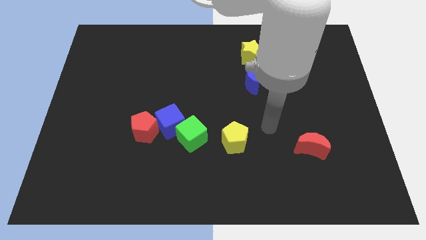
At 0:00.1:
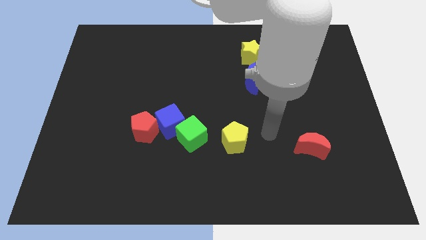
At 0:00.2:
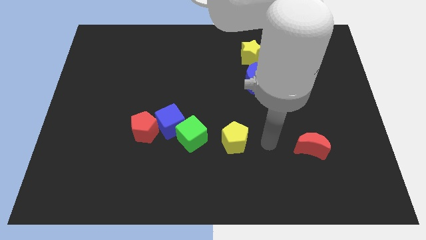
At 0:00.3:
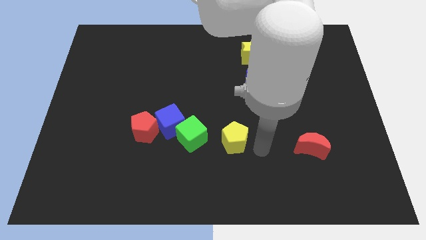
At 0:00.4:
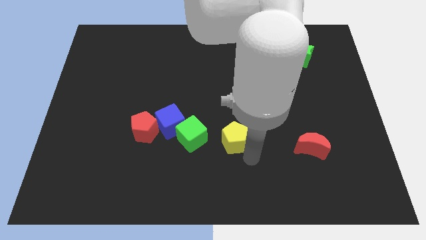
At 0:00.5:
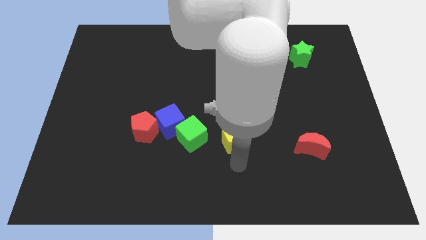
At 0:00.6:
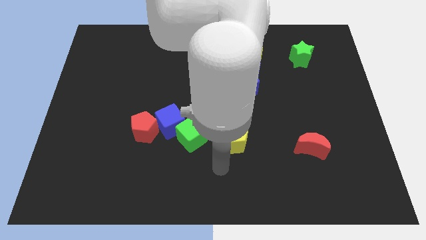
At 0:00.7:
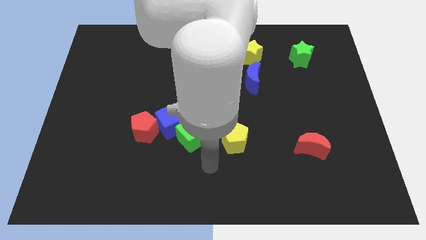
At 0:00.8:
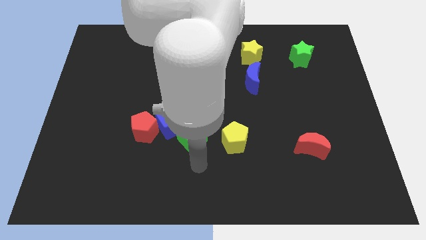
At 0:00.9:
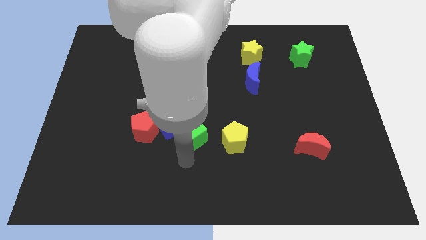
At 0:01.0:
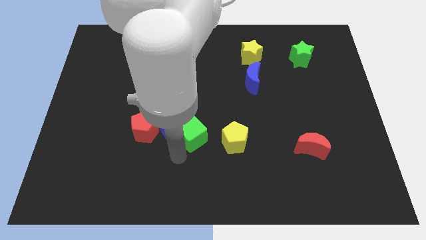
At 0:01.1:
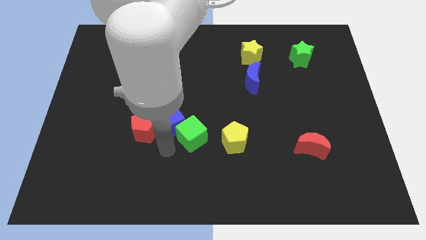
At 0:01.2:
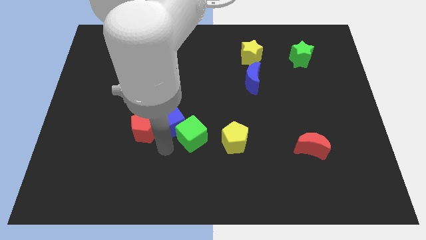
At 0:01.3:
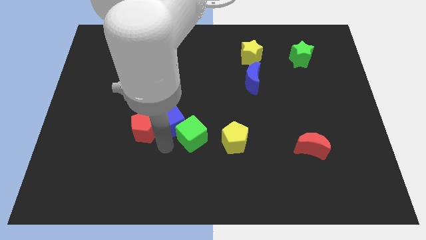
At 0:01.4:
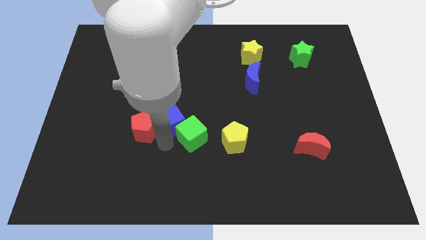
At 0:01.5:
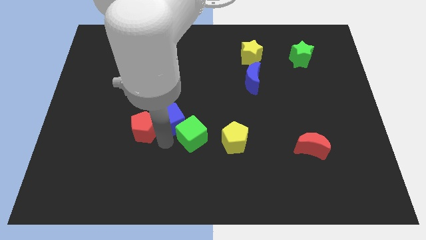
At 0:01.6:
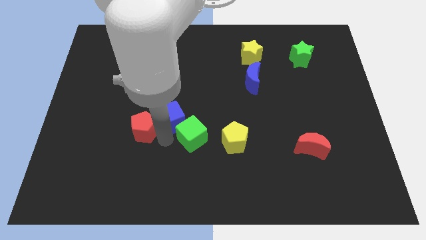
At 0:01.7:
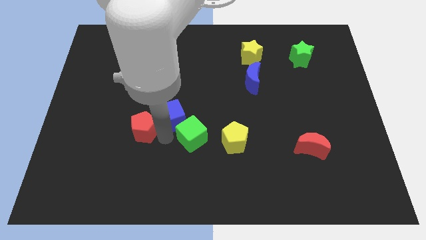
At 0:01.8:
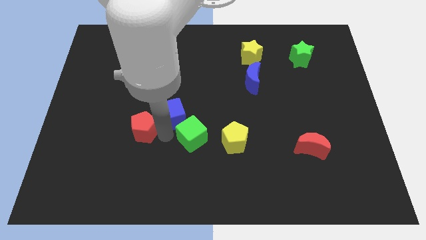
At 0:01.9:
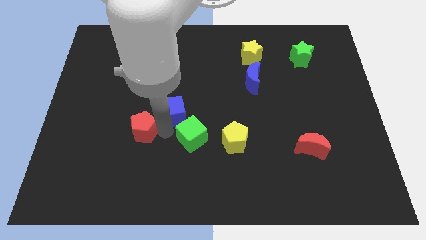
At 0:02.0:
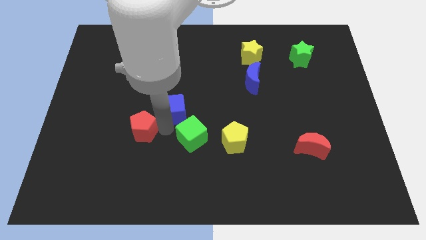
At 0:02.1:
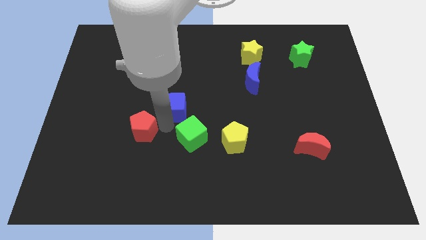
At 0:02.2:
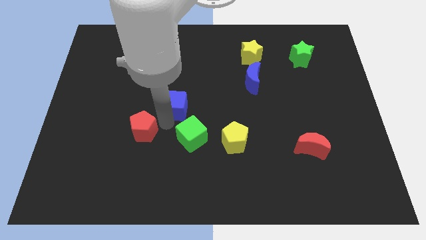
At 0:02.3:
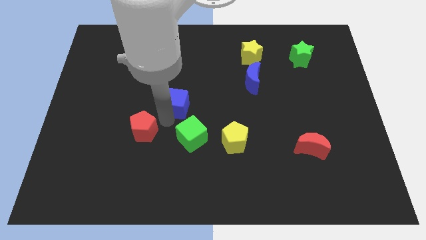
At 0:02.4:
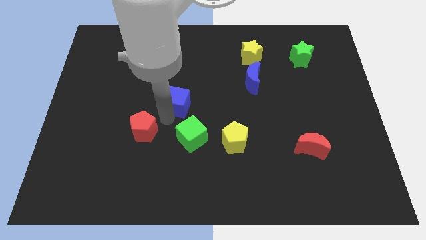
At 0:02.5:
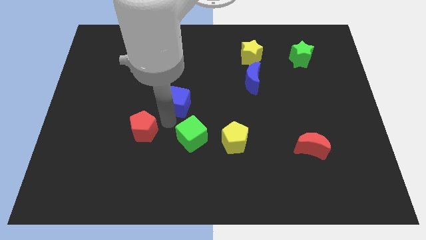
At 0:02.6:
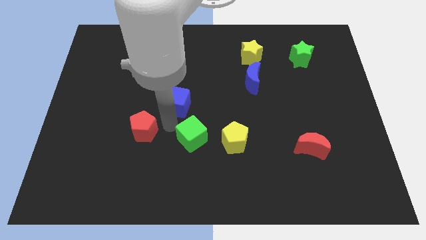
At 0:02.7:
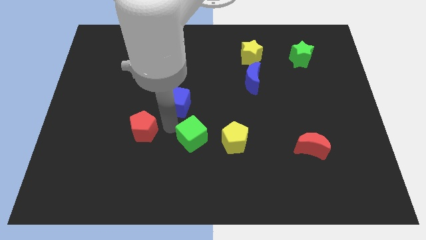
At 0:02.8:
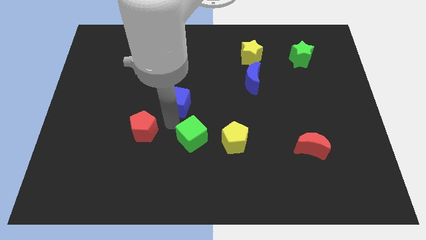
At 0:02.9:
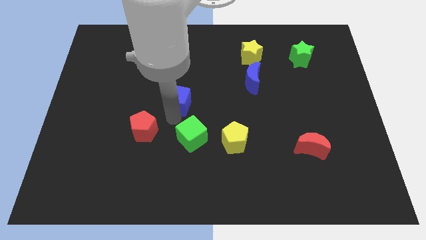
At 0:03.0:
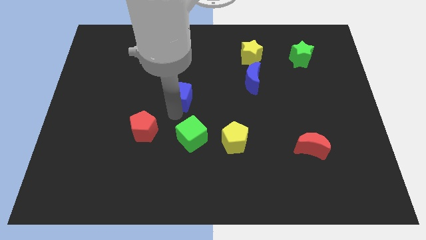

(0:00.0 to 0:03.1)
separate the blue cube from the green cube and red pentagon

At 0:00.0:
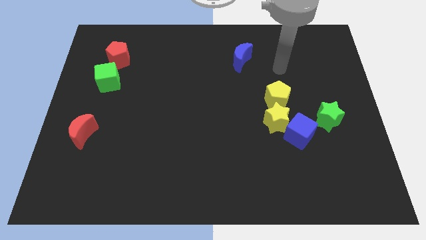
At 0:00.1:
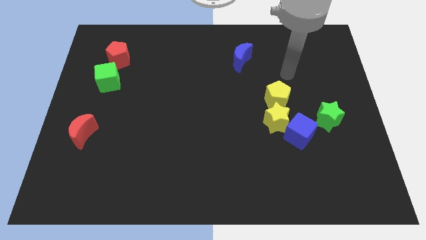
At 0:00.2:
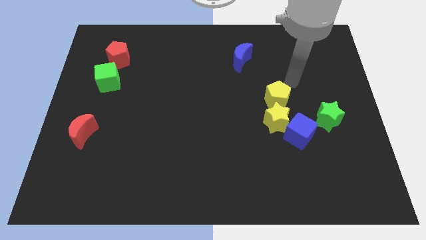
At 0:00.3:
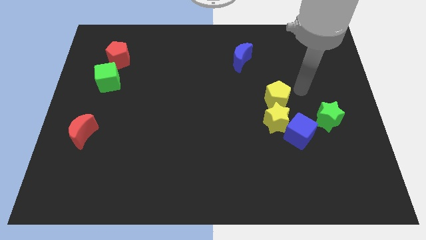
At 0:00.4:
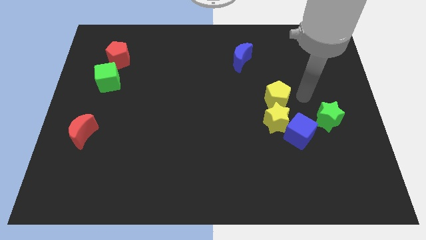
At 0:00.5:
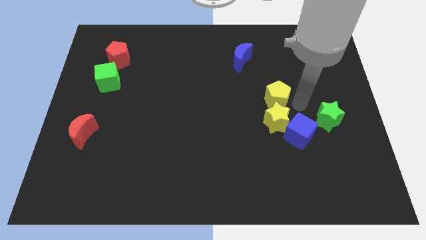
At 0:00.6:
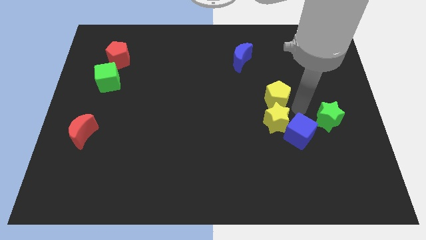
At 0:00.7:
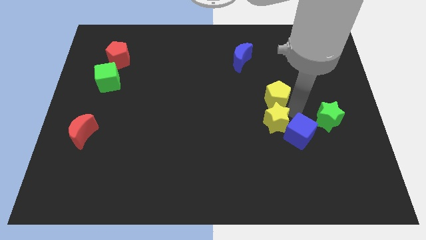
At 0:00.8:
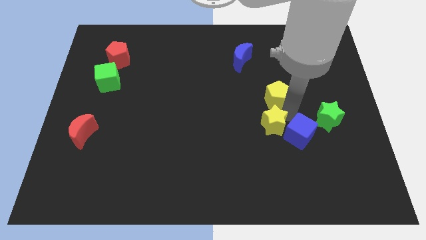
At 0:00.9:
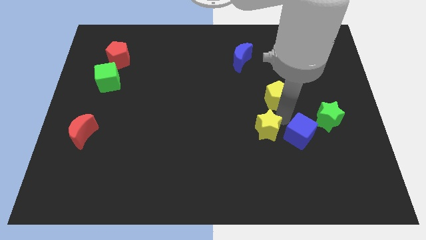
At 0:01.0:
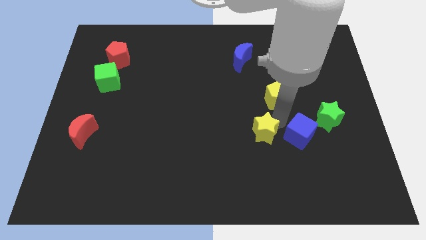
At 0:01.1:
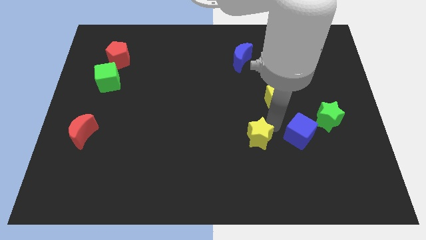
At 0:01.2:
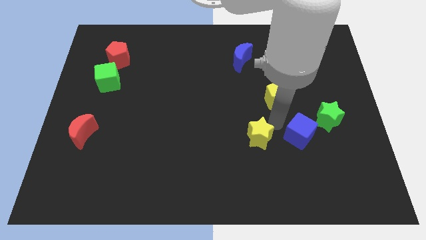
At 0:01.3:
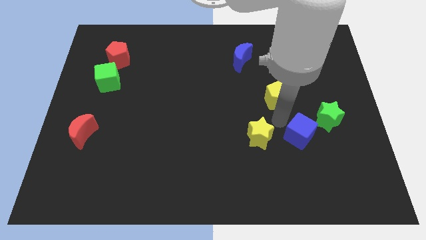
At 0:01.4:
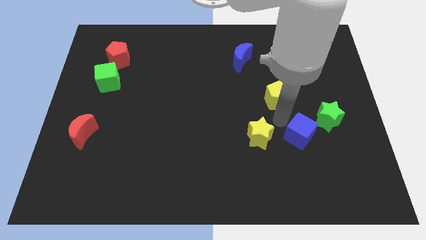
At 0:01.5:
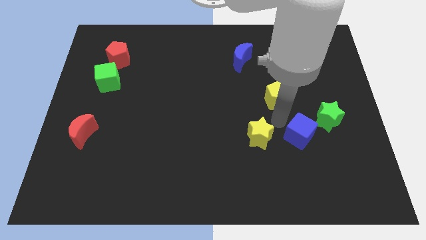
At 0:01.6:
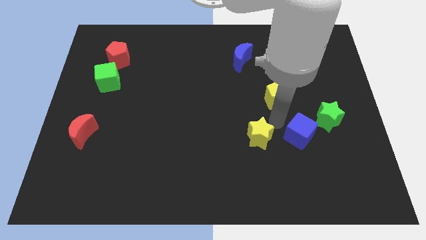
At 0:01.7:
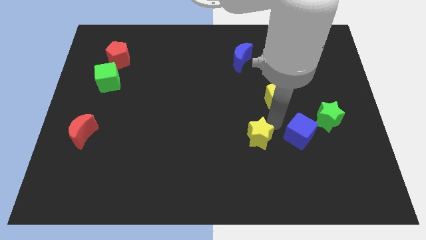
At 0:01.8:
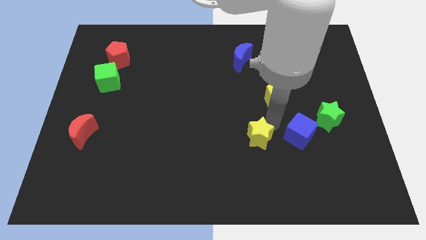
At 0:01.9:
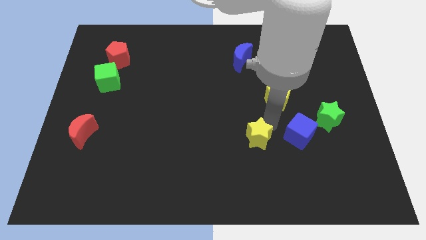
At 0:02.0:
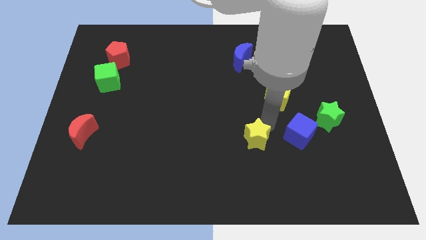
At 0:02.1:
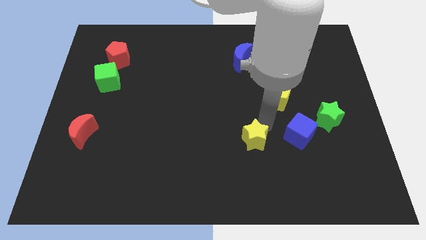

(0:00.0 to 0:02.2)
move the yellow star away from the blue cube and yellow pentagon

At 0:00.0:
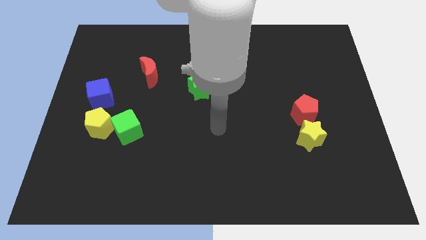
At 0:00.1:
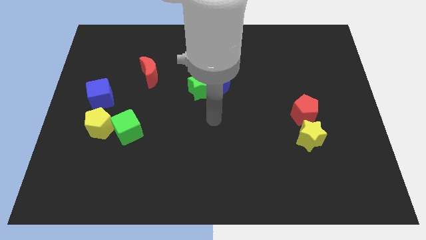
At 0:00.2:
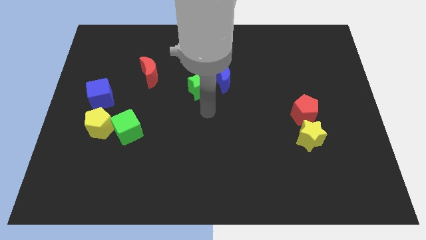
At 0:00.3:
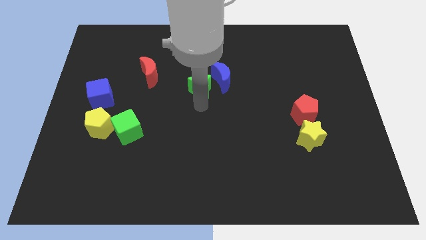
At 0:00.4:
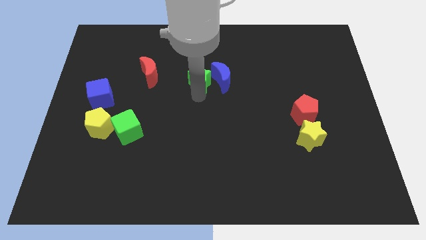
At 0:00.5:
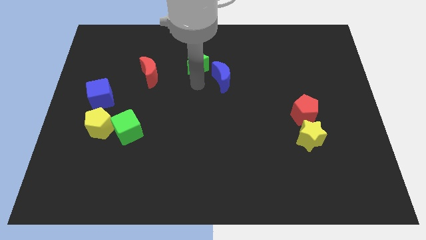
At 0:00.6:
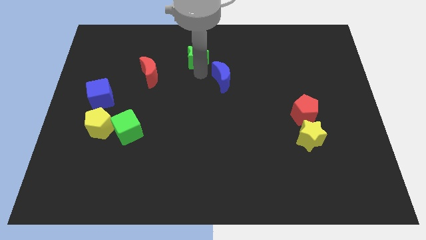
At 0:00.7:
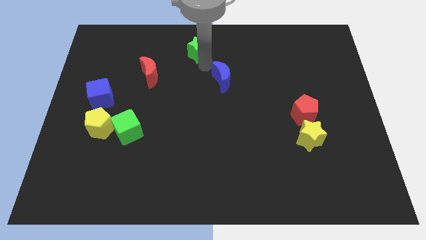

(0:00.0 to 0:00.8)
separate the blue moon from the green star

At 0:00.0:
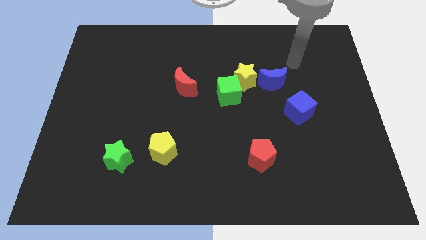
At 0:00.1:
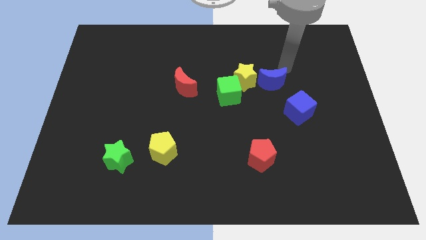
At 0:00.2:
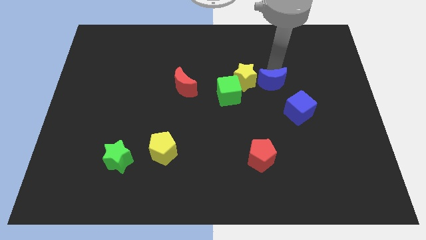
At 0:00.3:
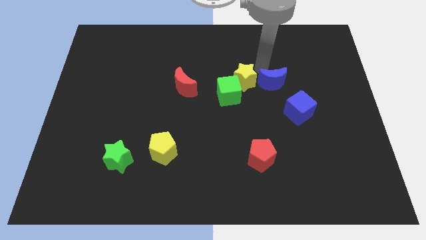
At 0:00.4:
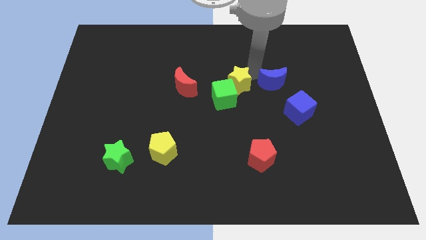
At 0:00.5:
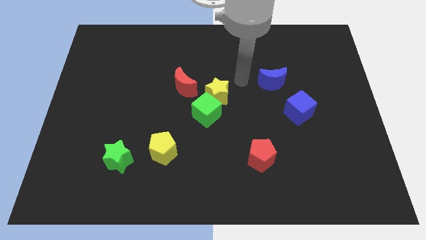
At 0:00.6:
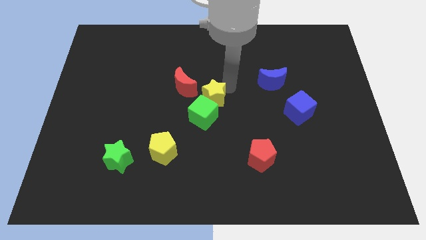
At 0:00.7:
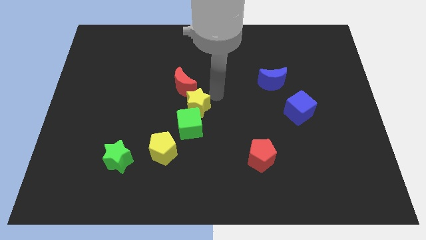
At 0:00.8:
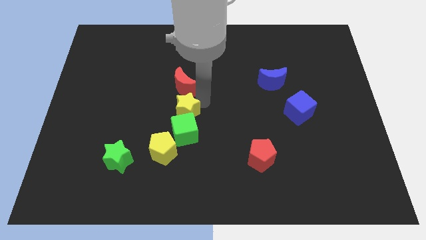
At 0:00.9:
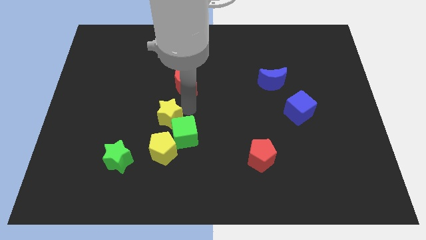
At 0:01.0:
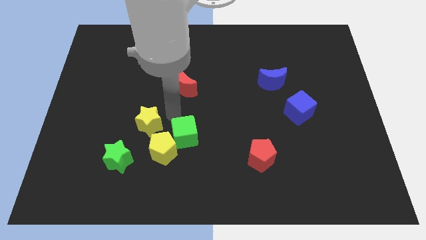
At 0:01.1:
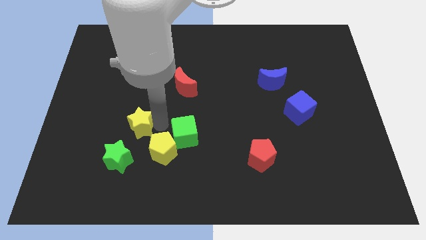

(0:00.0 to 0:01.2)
pull the green cube apart from the yellow star

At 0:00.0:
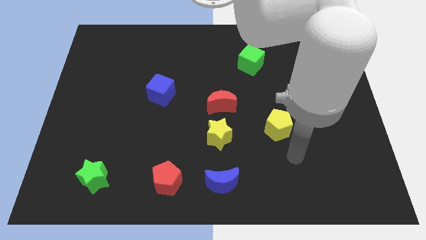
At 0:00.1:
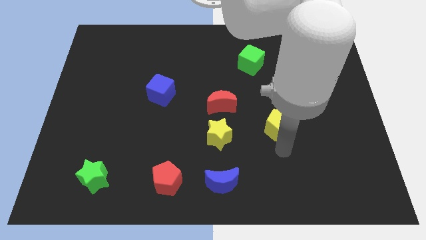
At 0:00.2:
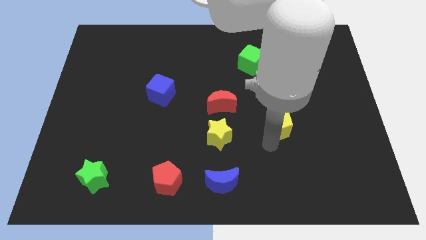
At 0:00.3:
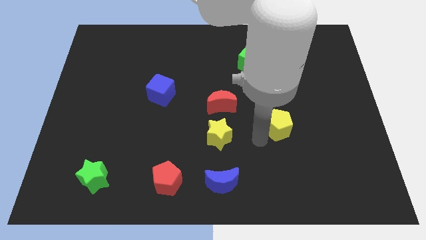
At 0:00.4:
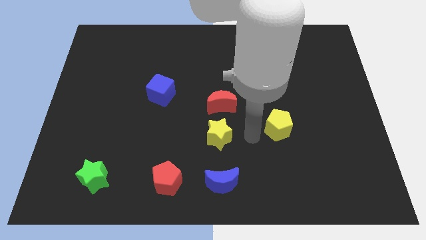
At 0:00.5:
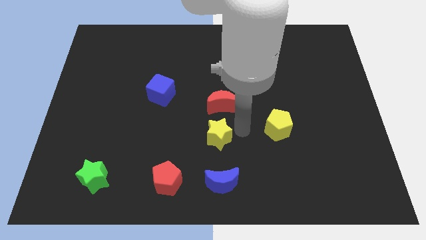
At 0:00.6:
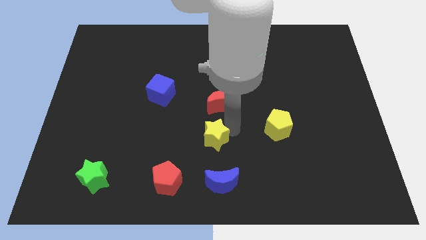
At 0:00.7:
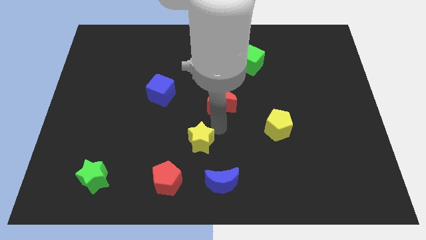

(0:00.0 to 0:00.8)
pull the red moon apart from the yellow star

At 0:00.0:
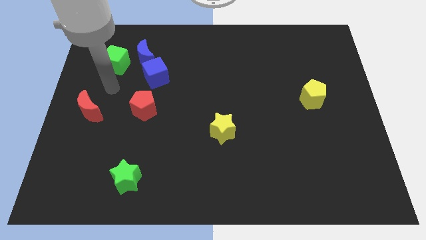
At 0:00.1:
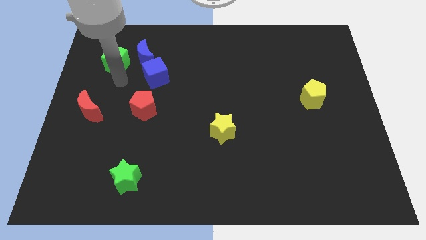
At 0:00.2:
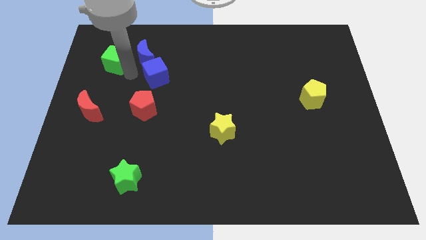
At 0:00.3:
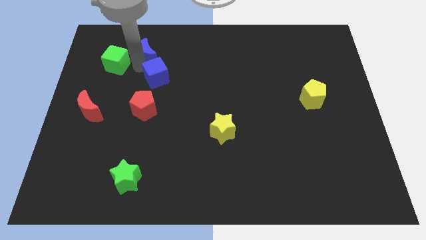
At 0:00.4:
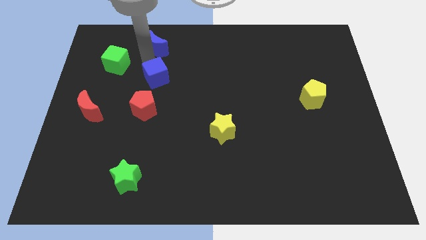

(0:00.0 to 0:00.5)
move the blue cube away from the blue moon

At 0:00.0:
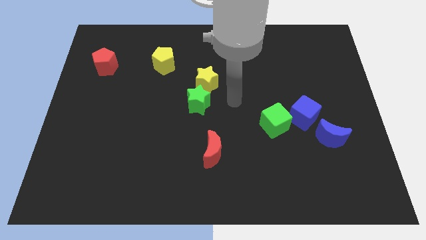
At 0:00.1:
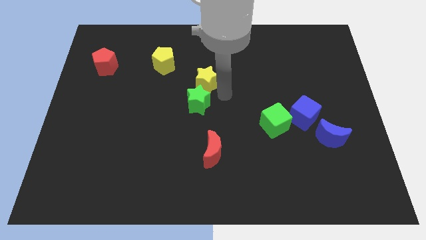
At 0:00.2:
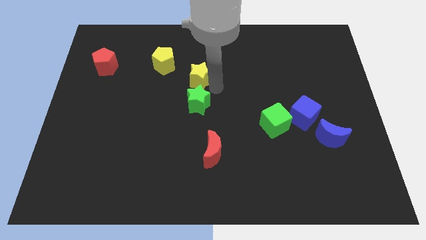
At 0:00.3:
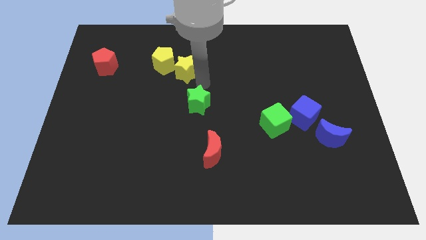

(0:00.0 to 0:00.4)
move the green star away from the yellow star

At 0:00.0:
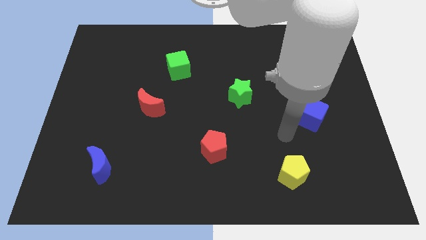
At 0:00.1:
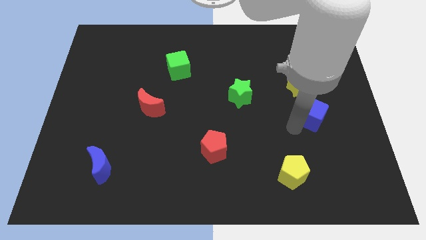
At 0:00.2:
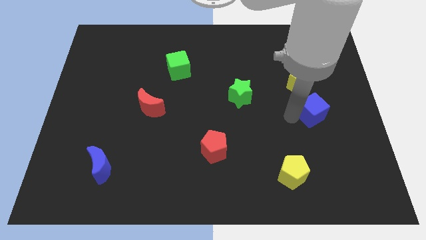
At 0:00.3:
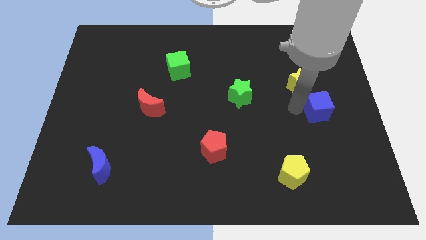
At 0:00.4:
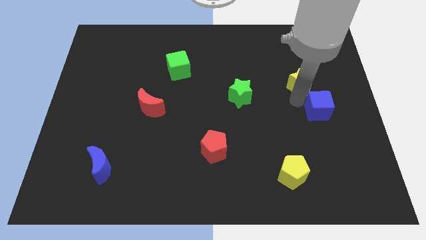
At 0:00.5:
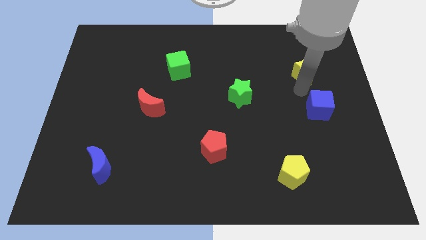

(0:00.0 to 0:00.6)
separate the blue cube from the yellow star
